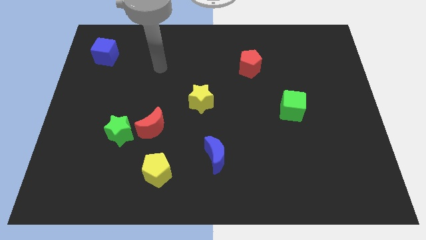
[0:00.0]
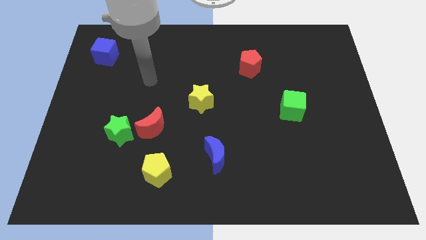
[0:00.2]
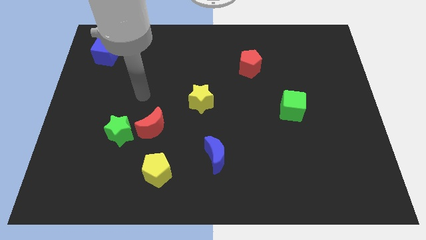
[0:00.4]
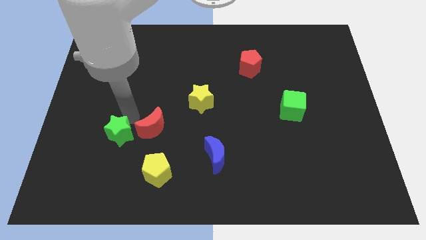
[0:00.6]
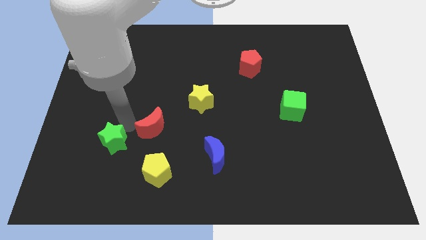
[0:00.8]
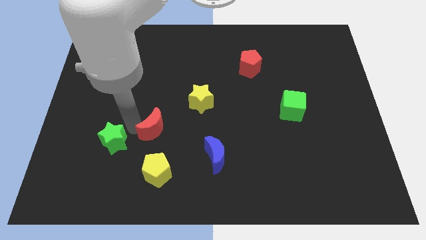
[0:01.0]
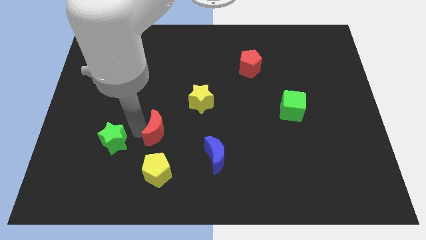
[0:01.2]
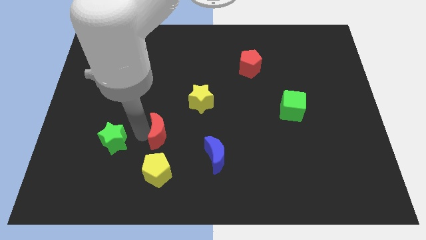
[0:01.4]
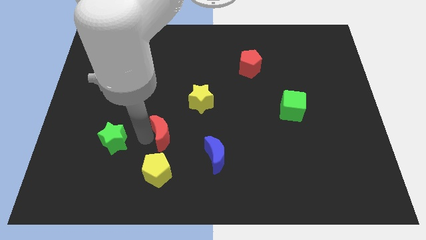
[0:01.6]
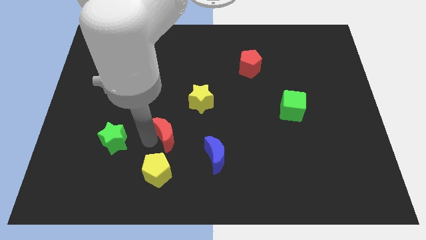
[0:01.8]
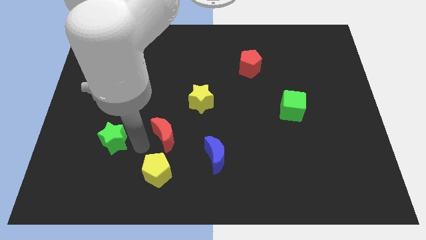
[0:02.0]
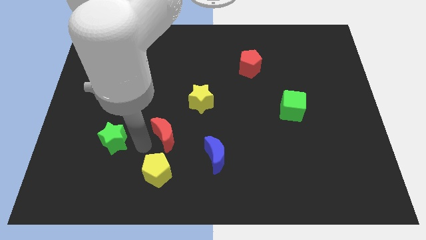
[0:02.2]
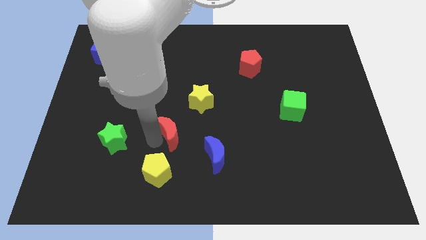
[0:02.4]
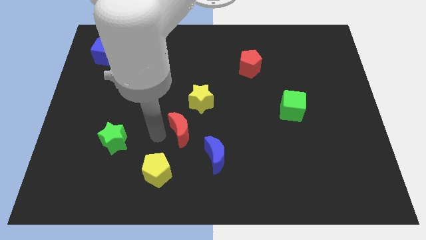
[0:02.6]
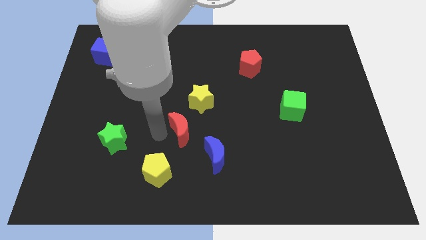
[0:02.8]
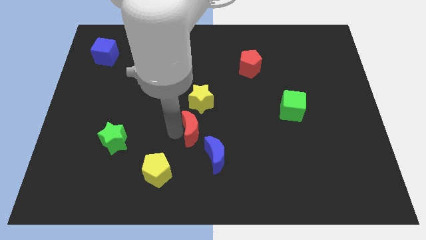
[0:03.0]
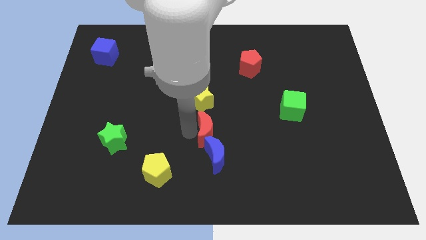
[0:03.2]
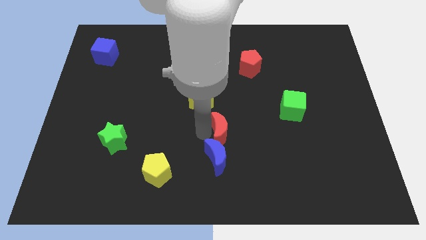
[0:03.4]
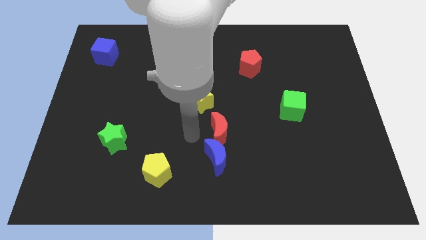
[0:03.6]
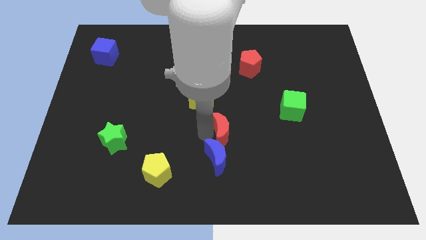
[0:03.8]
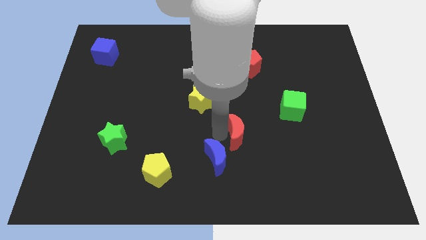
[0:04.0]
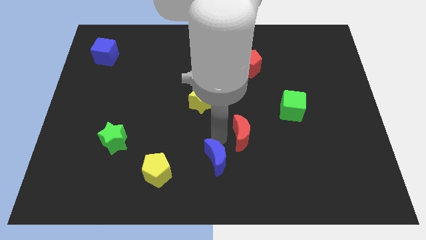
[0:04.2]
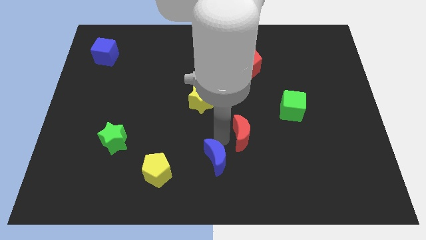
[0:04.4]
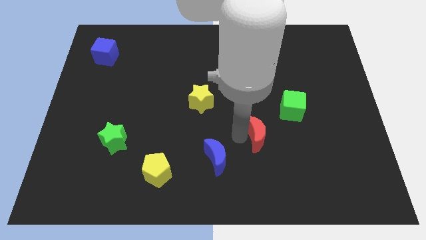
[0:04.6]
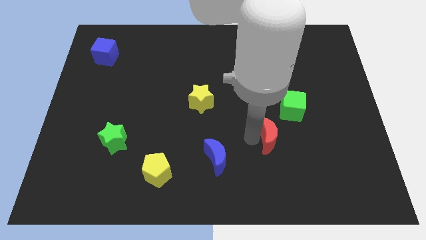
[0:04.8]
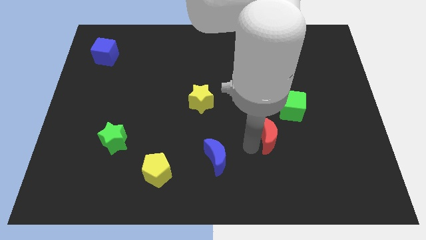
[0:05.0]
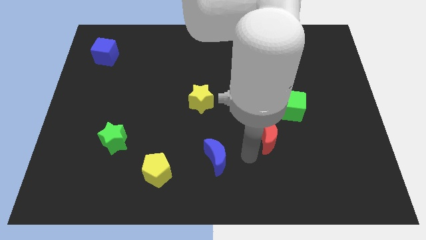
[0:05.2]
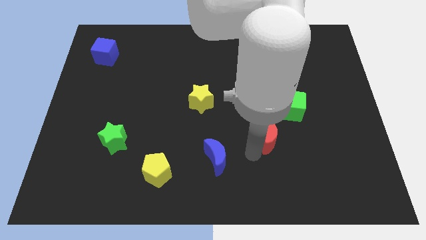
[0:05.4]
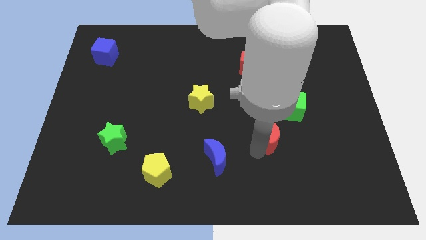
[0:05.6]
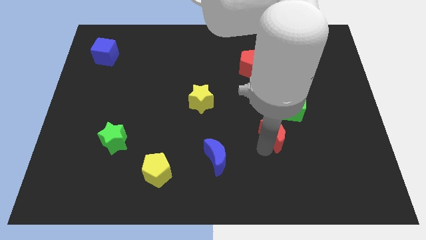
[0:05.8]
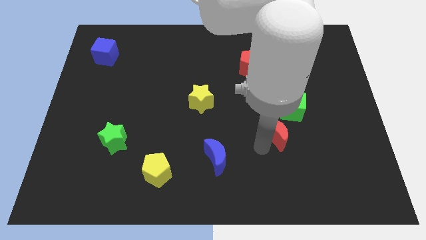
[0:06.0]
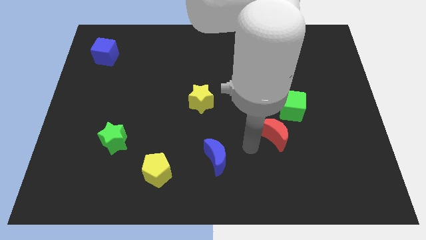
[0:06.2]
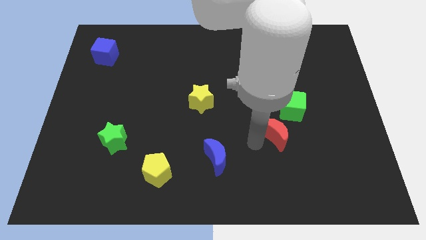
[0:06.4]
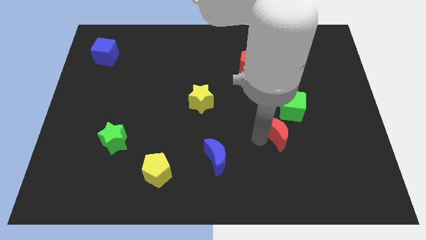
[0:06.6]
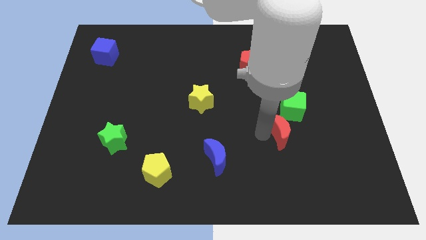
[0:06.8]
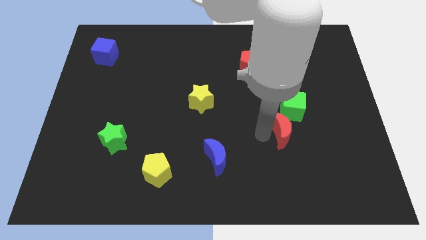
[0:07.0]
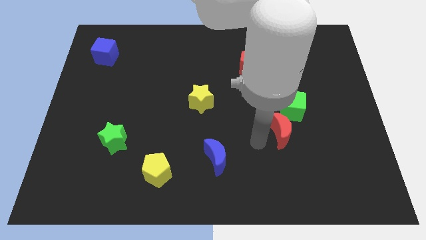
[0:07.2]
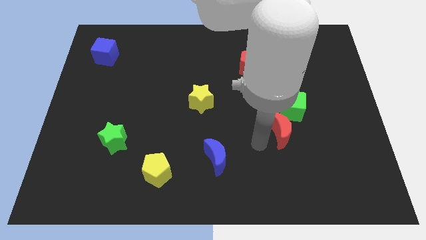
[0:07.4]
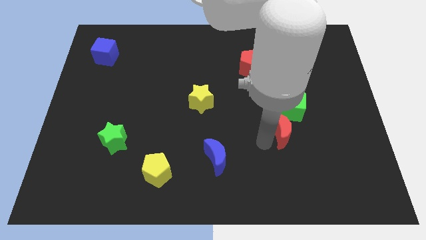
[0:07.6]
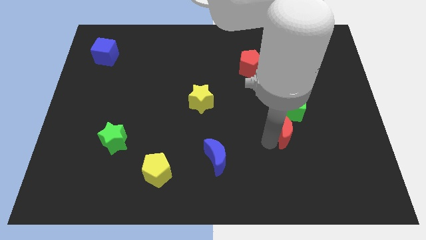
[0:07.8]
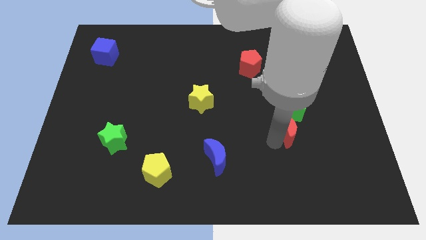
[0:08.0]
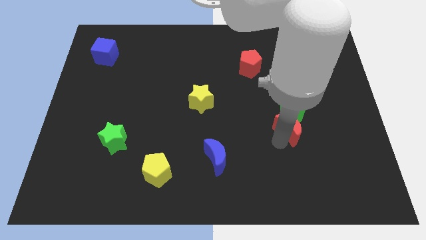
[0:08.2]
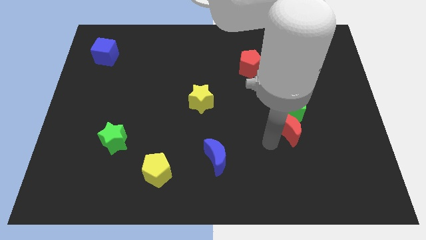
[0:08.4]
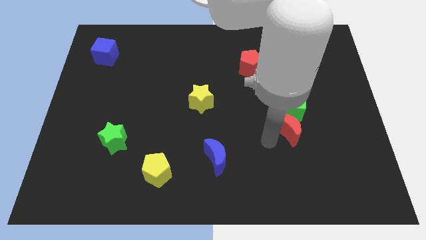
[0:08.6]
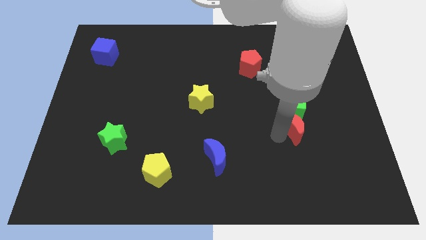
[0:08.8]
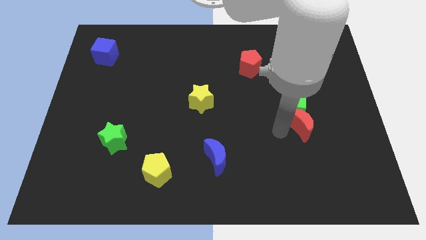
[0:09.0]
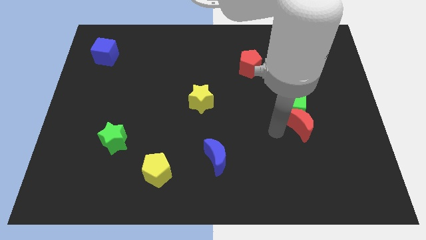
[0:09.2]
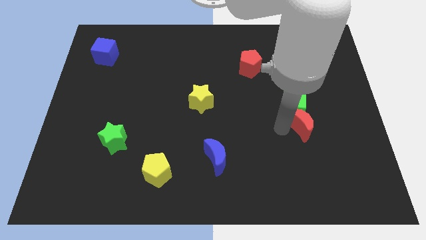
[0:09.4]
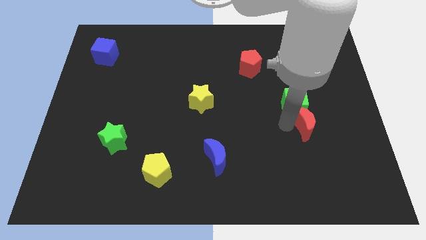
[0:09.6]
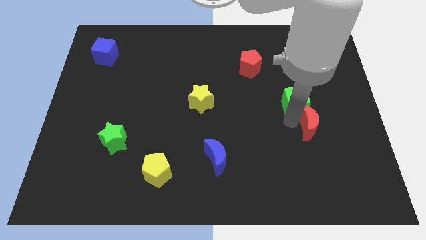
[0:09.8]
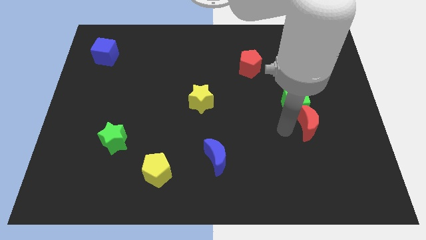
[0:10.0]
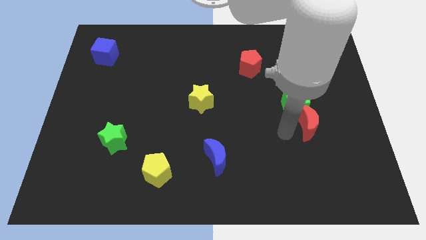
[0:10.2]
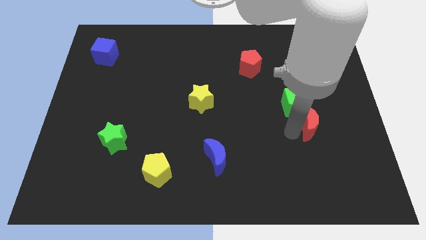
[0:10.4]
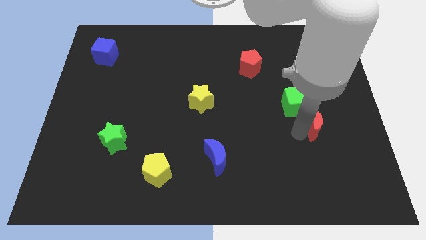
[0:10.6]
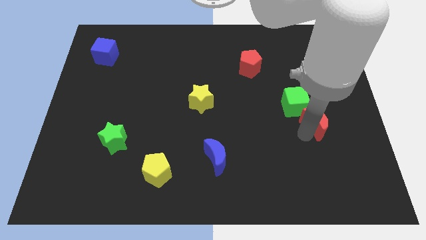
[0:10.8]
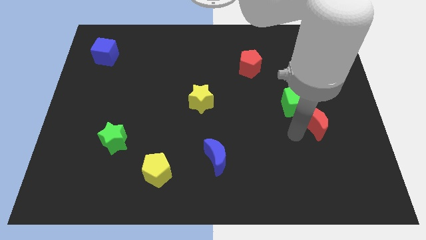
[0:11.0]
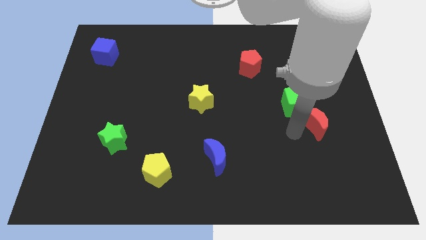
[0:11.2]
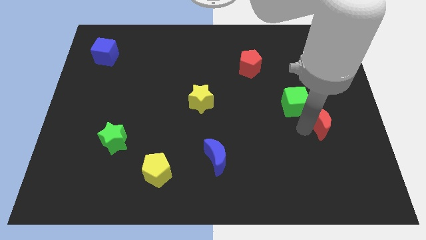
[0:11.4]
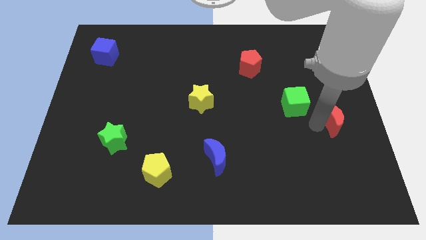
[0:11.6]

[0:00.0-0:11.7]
put the red moon to the center right
